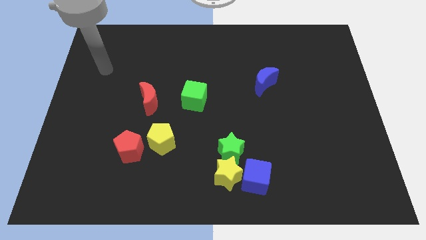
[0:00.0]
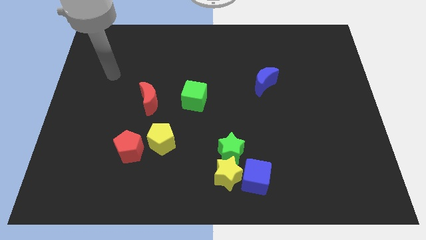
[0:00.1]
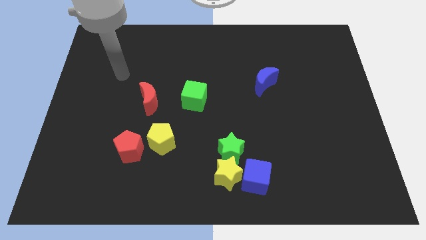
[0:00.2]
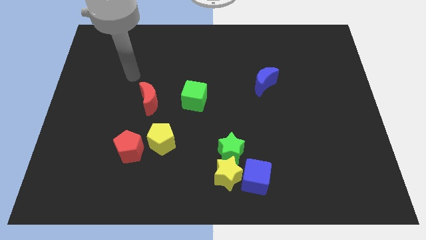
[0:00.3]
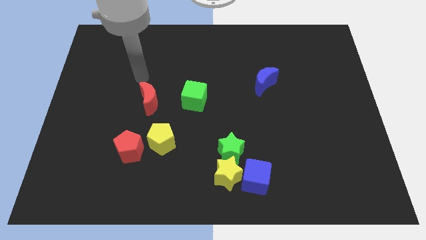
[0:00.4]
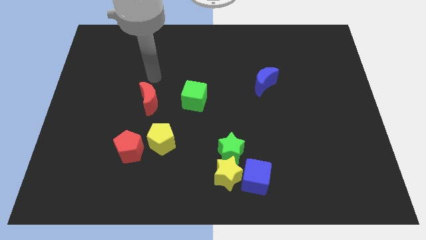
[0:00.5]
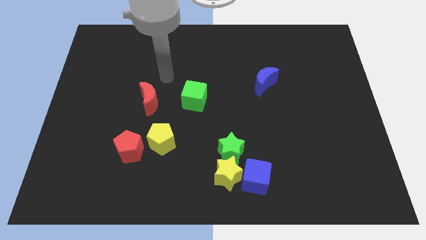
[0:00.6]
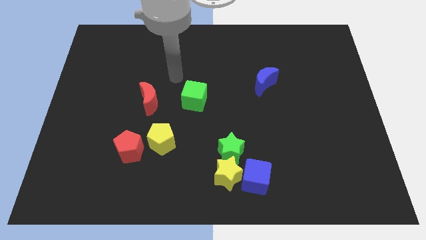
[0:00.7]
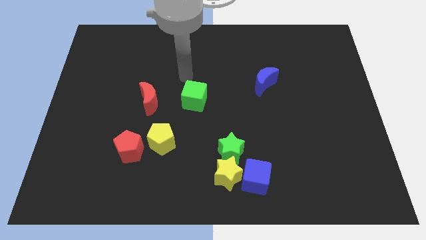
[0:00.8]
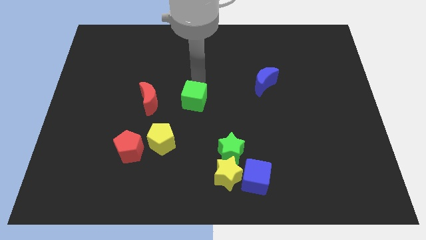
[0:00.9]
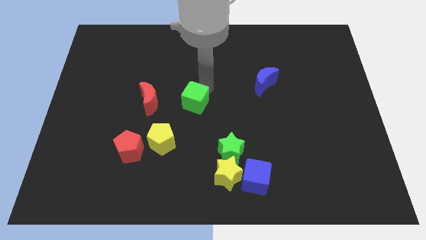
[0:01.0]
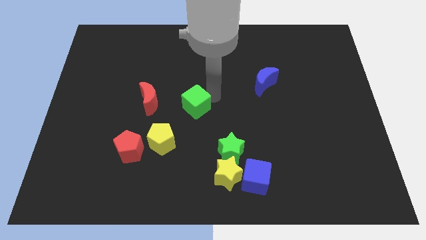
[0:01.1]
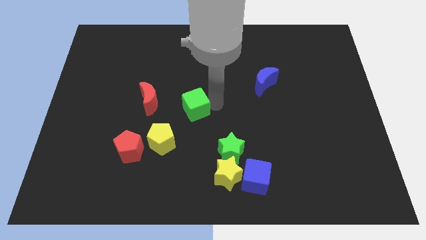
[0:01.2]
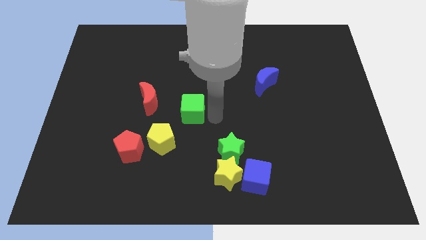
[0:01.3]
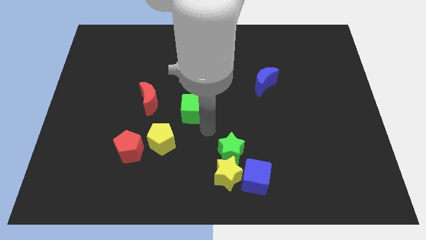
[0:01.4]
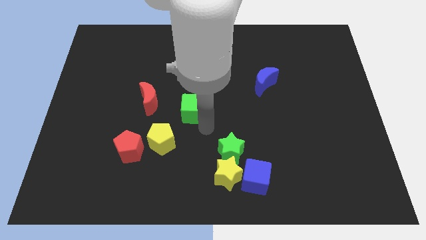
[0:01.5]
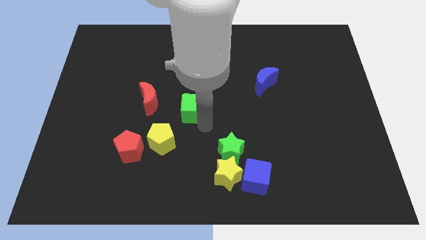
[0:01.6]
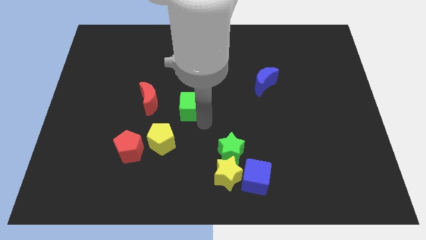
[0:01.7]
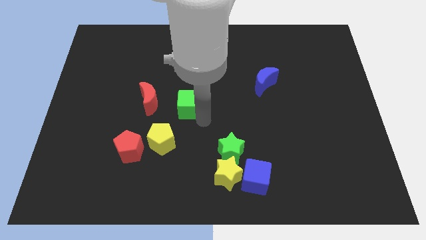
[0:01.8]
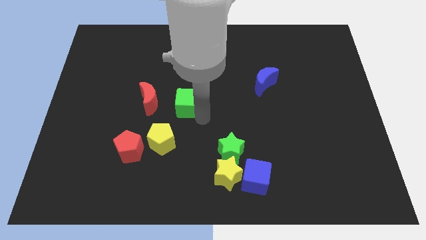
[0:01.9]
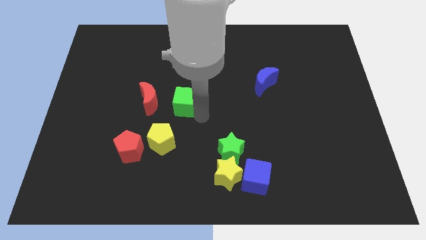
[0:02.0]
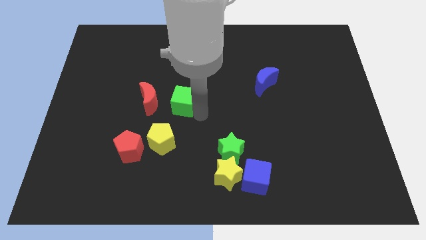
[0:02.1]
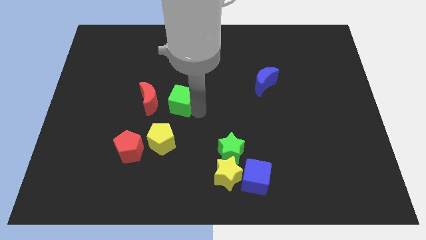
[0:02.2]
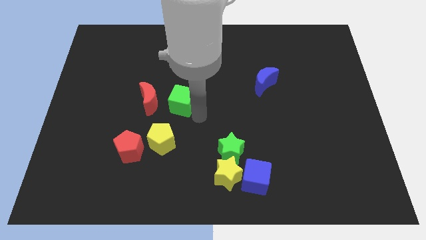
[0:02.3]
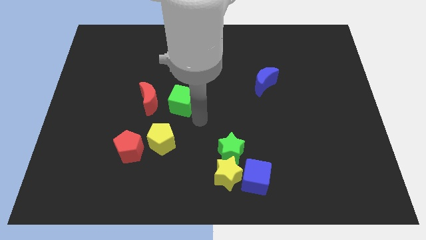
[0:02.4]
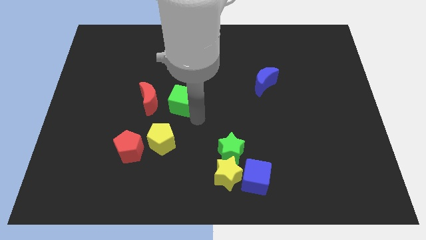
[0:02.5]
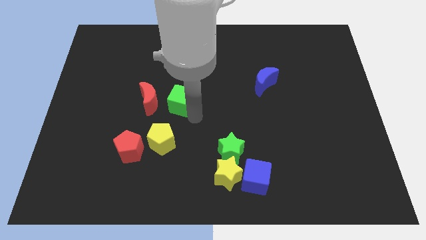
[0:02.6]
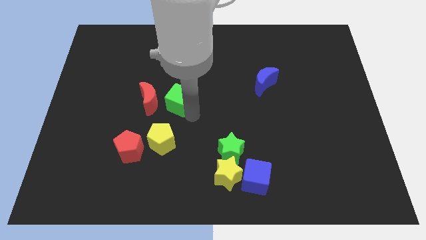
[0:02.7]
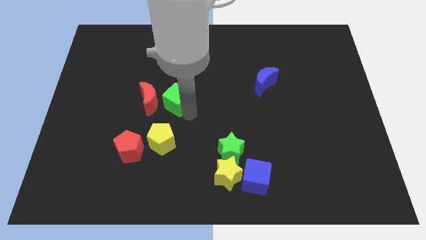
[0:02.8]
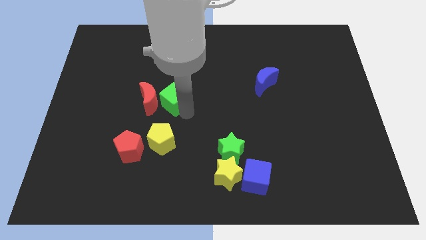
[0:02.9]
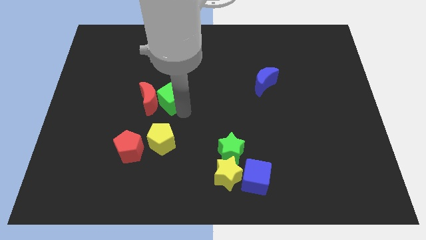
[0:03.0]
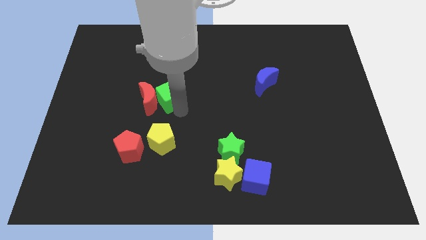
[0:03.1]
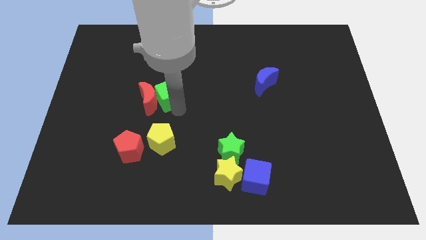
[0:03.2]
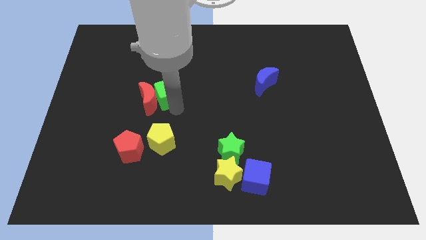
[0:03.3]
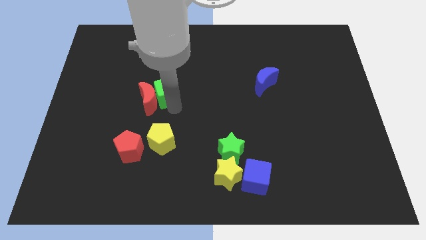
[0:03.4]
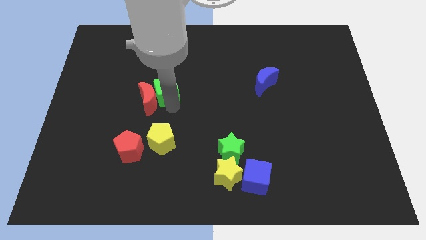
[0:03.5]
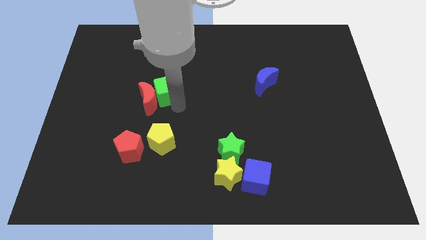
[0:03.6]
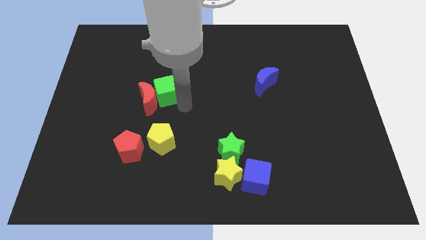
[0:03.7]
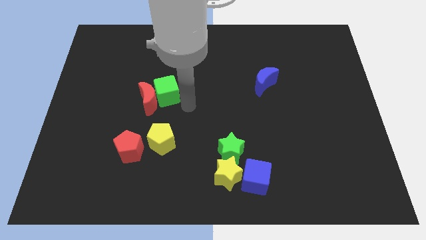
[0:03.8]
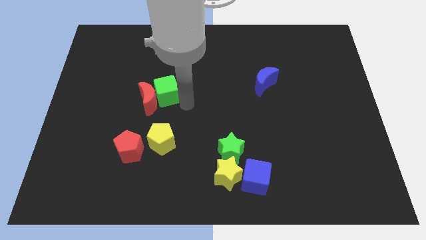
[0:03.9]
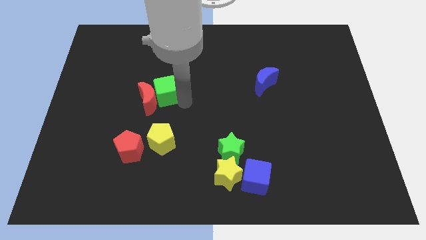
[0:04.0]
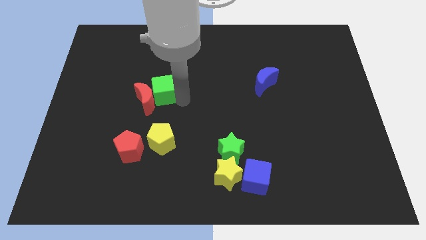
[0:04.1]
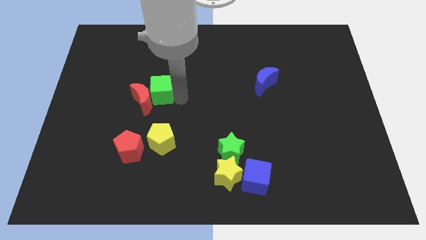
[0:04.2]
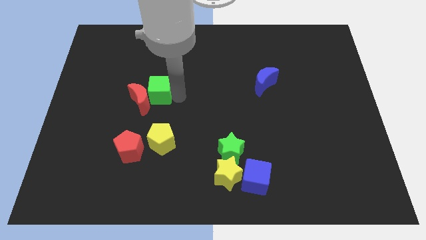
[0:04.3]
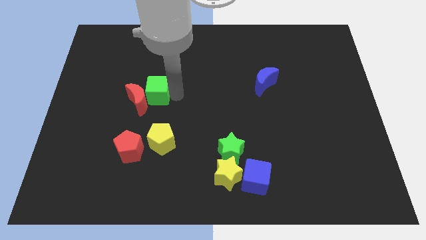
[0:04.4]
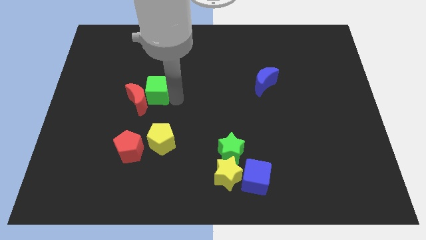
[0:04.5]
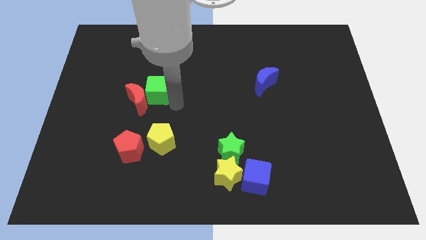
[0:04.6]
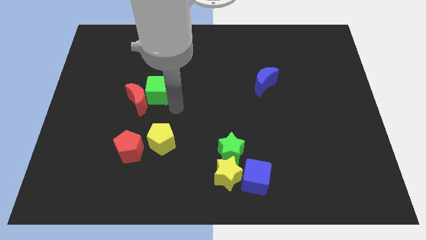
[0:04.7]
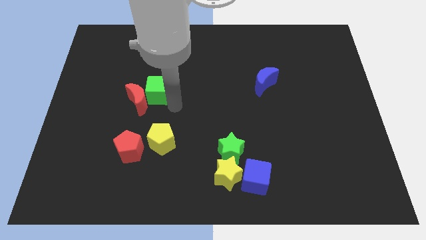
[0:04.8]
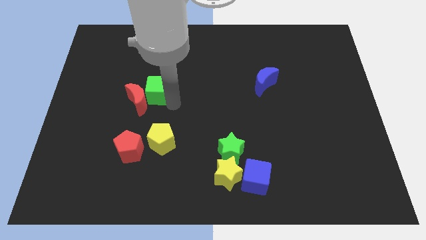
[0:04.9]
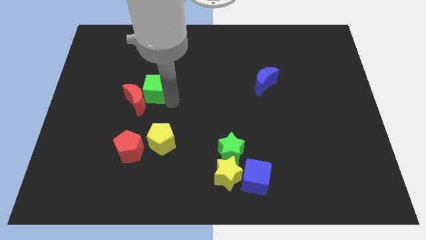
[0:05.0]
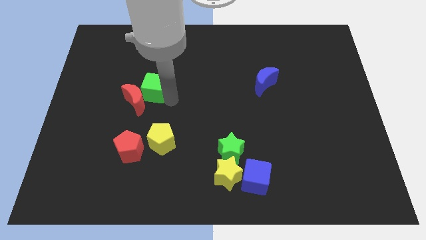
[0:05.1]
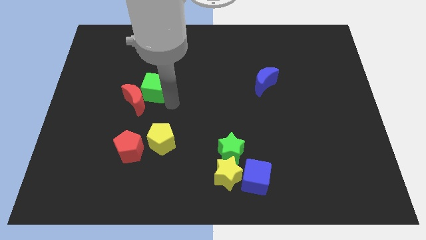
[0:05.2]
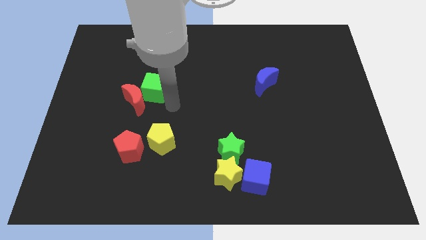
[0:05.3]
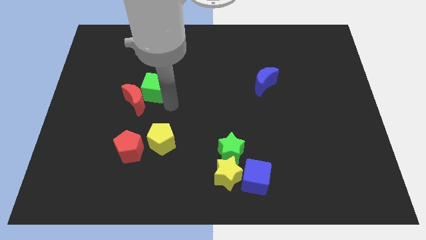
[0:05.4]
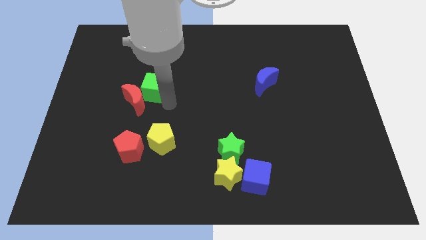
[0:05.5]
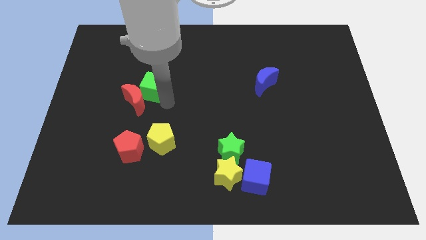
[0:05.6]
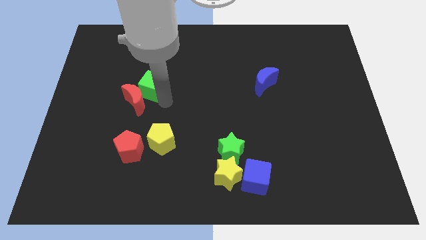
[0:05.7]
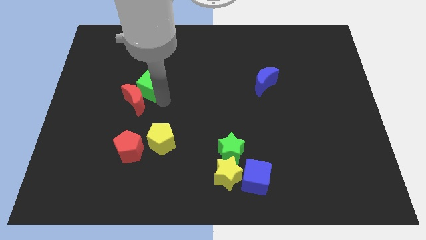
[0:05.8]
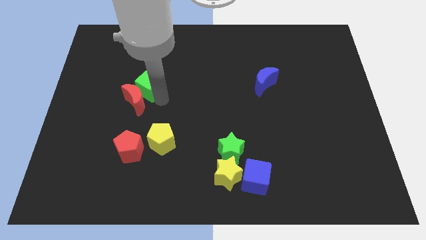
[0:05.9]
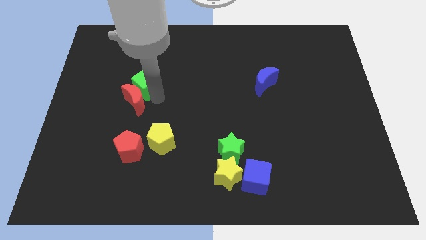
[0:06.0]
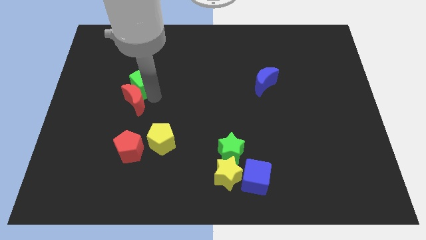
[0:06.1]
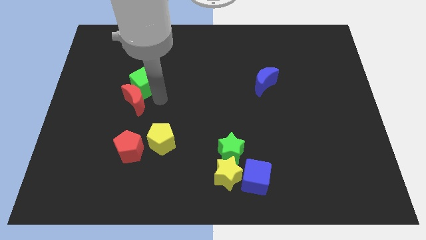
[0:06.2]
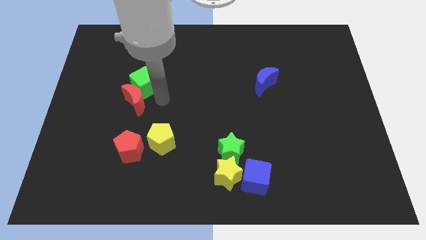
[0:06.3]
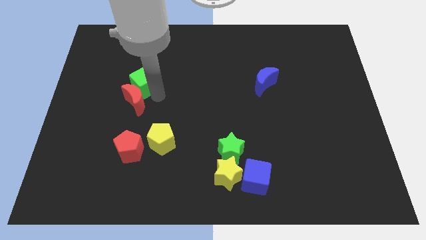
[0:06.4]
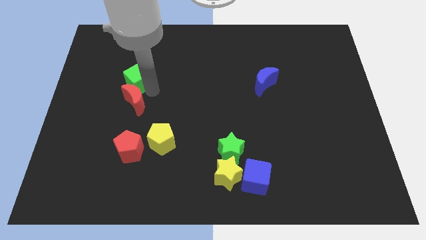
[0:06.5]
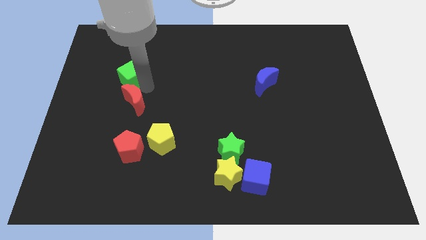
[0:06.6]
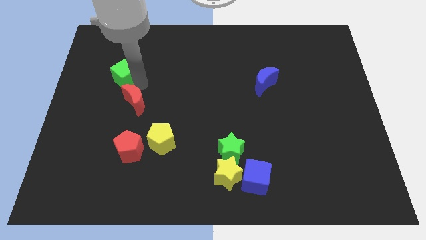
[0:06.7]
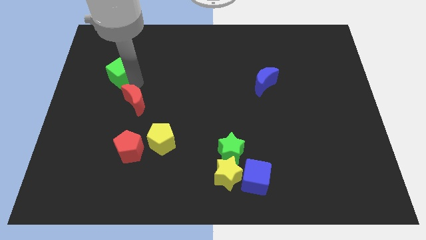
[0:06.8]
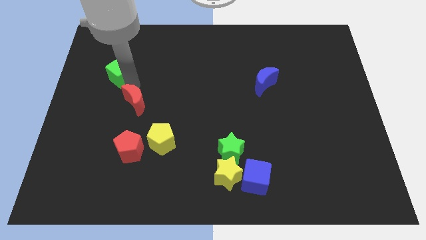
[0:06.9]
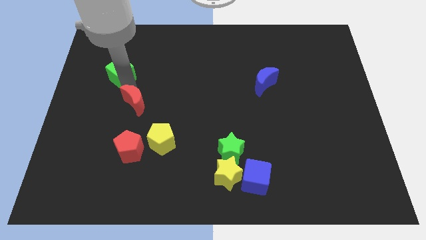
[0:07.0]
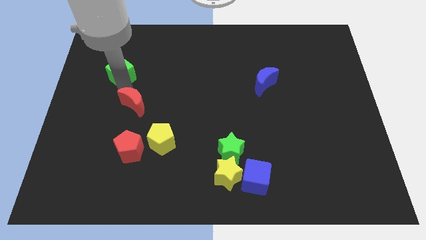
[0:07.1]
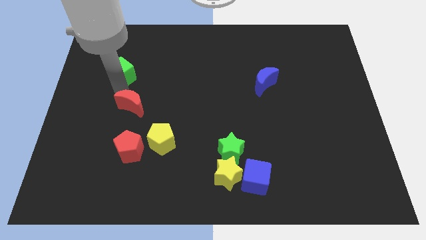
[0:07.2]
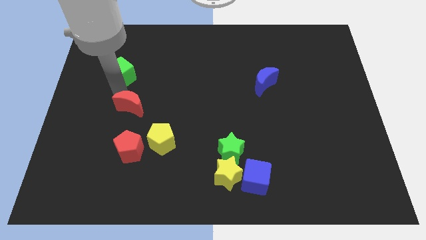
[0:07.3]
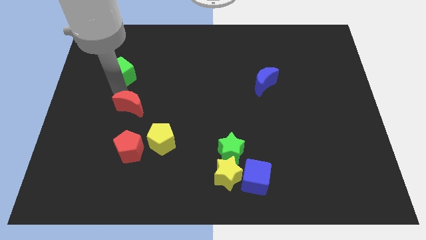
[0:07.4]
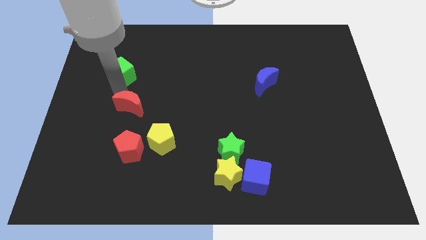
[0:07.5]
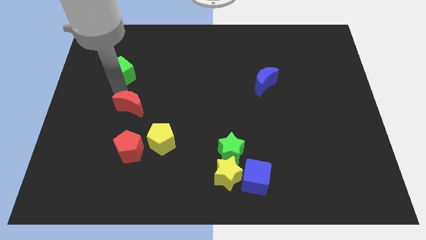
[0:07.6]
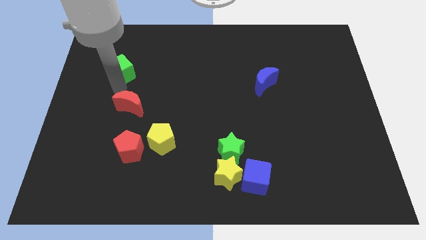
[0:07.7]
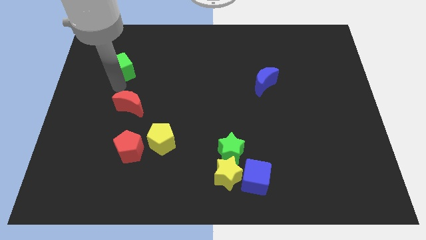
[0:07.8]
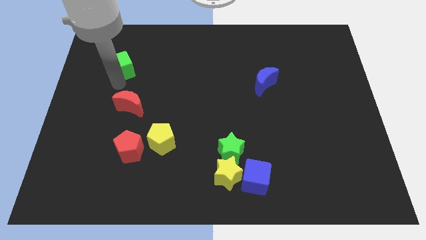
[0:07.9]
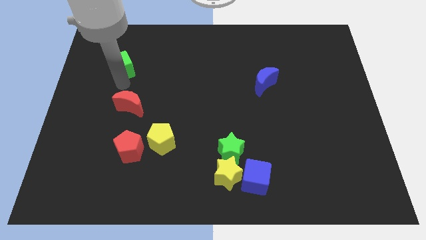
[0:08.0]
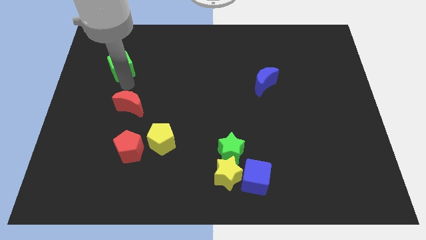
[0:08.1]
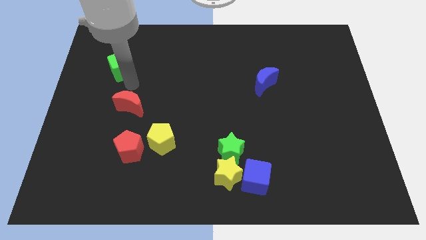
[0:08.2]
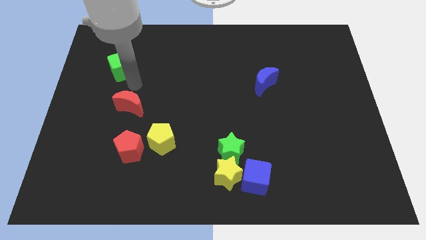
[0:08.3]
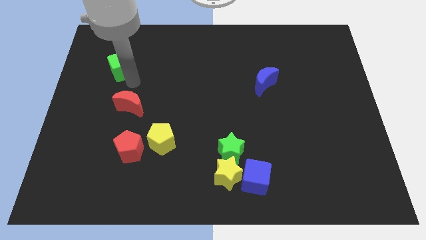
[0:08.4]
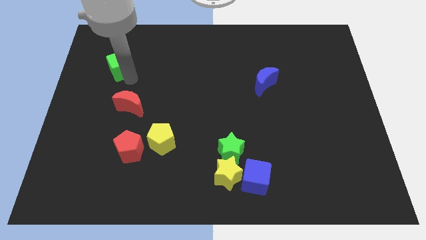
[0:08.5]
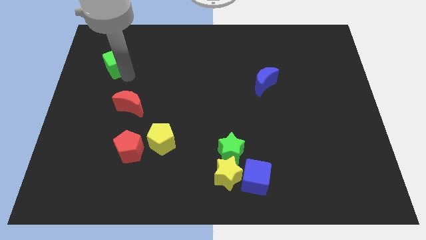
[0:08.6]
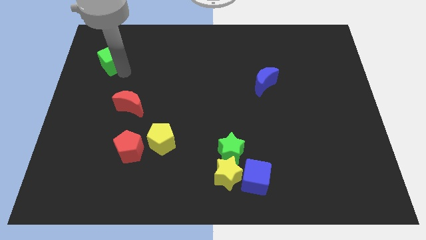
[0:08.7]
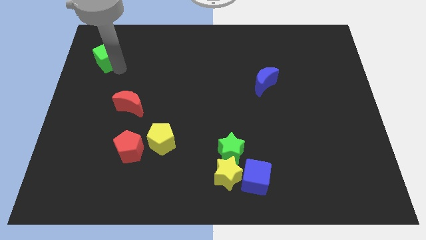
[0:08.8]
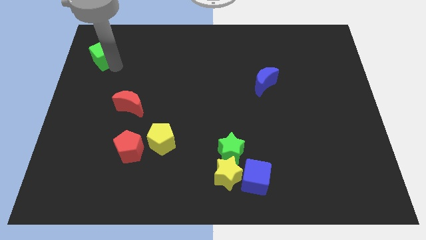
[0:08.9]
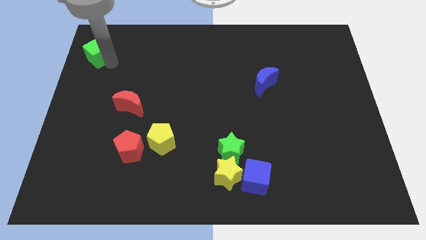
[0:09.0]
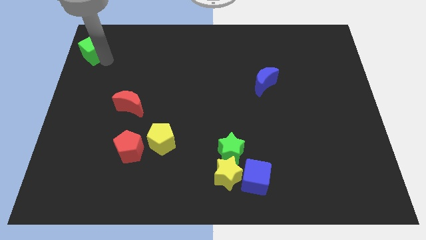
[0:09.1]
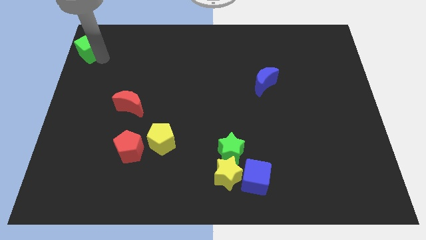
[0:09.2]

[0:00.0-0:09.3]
put the green cube to the upper left corner
